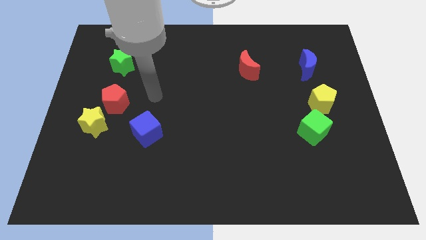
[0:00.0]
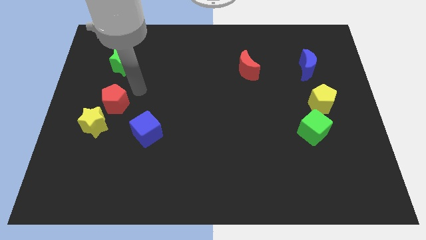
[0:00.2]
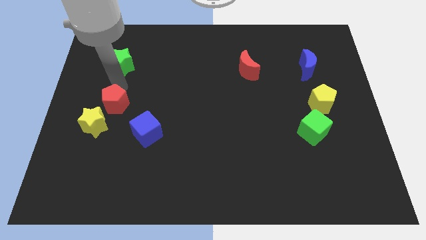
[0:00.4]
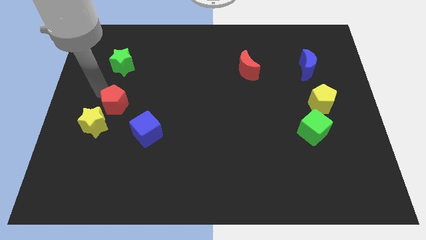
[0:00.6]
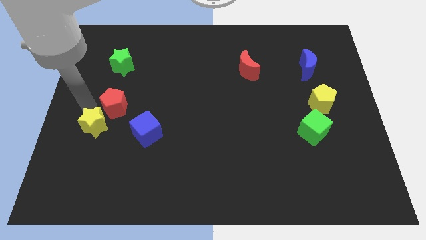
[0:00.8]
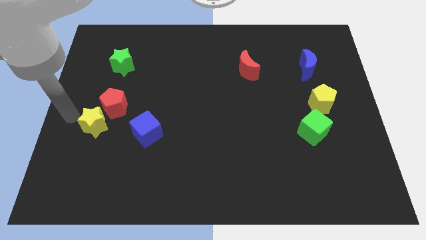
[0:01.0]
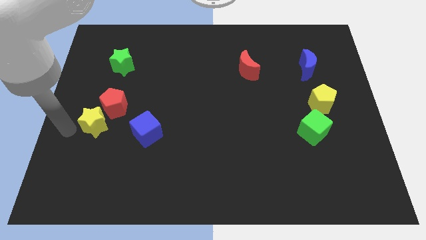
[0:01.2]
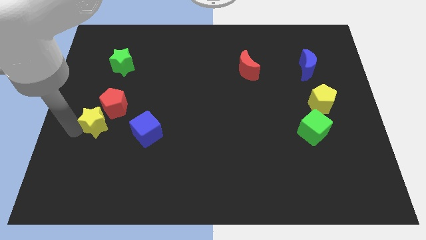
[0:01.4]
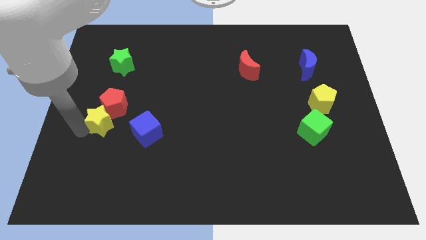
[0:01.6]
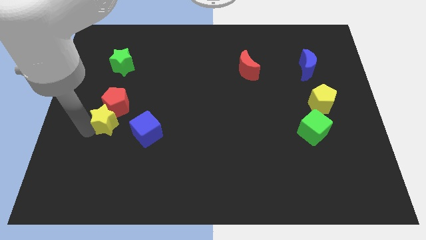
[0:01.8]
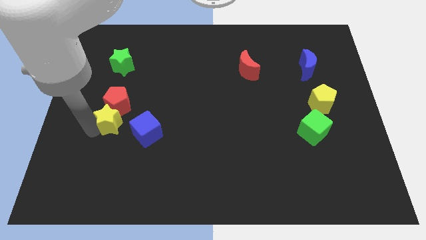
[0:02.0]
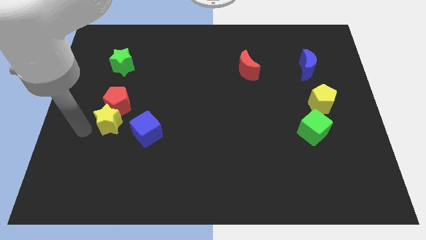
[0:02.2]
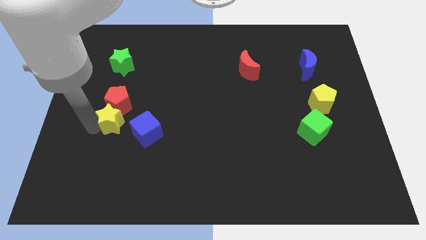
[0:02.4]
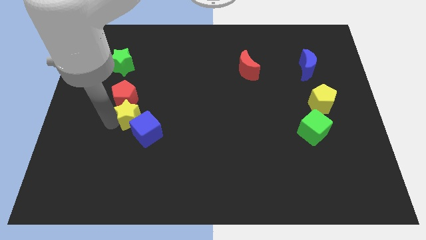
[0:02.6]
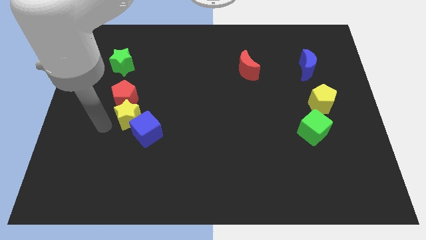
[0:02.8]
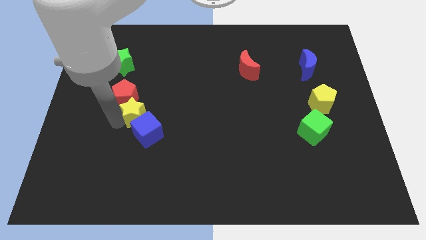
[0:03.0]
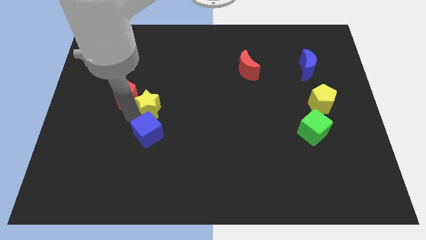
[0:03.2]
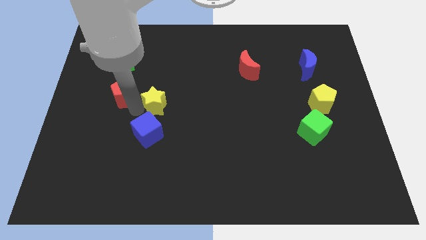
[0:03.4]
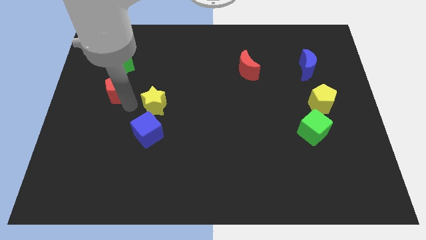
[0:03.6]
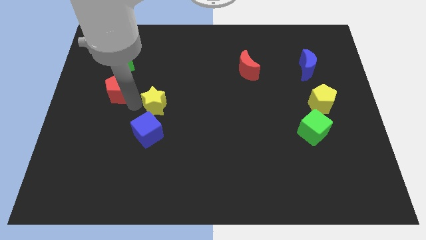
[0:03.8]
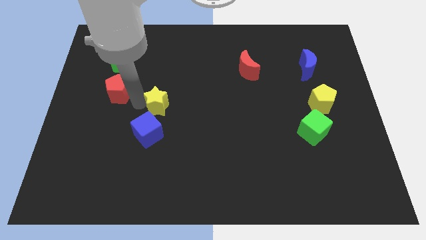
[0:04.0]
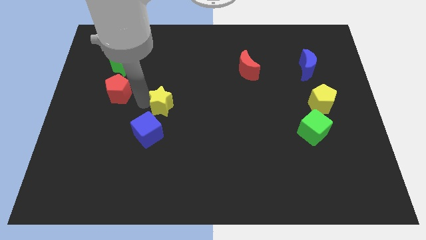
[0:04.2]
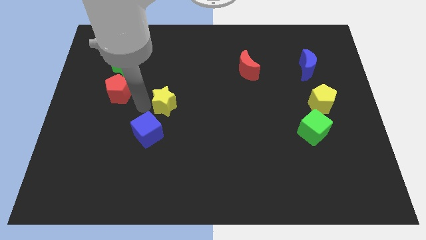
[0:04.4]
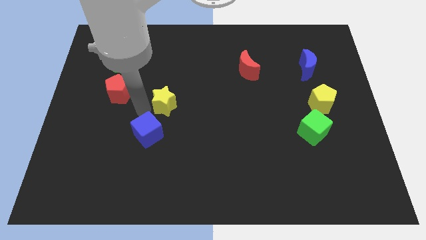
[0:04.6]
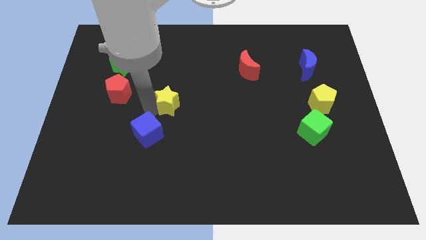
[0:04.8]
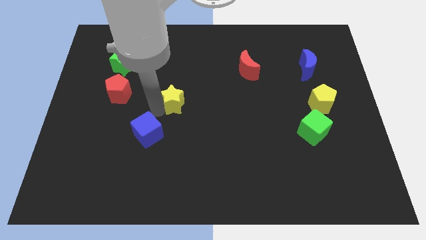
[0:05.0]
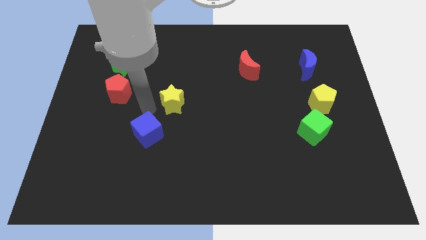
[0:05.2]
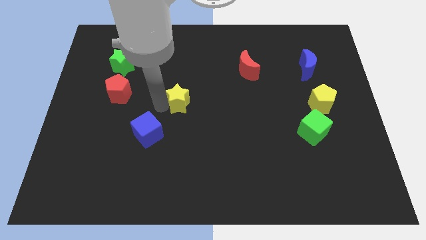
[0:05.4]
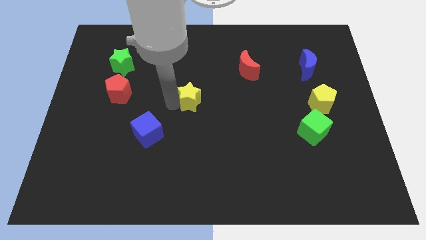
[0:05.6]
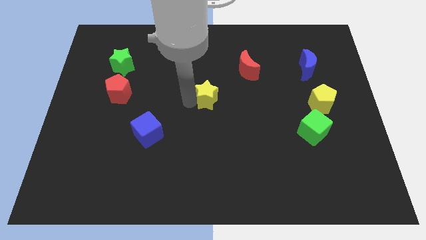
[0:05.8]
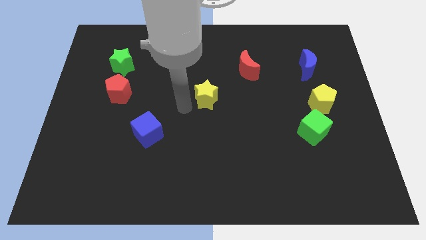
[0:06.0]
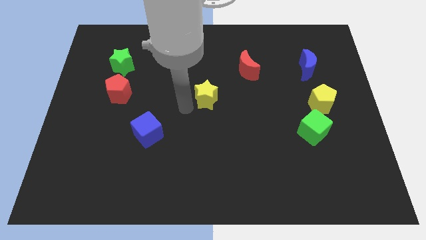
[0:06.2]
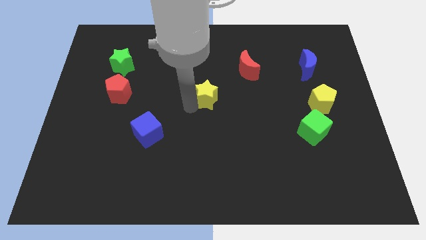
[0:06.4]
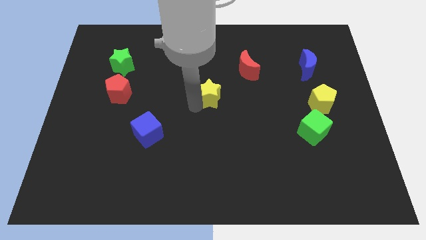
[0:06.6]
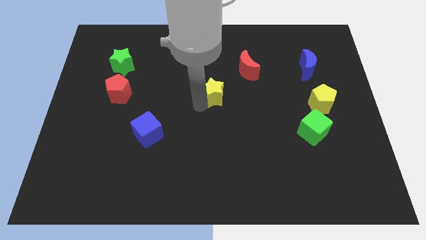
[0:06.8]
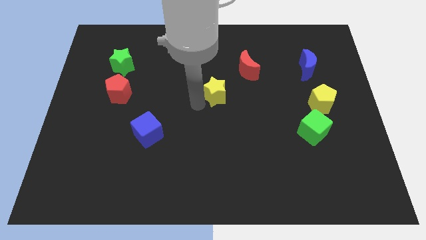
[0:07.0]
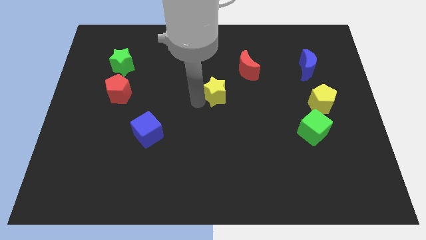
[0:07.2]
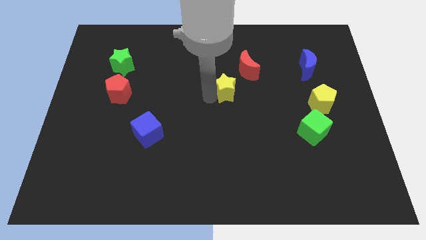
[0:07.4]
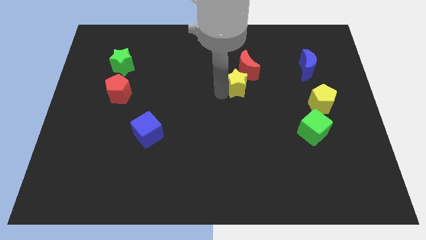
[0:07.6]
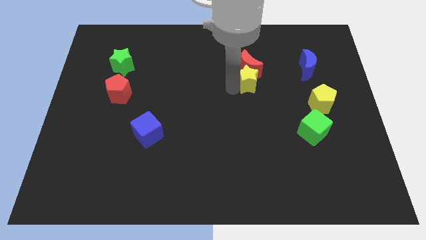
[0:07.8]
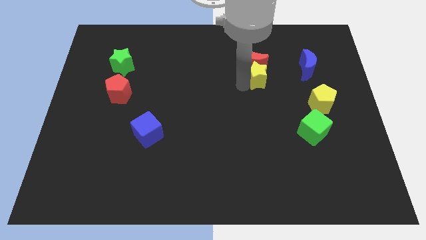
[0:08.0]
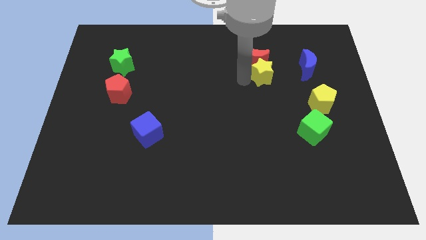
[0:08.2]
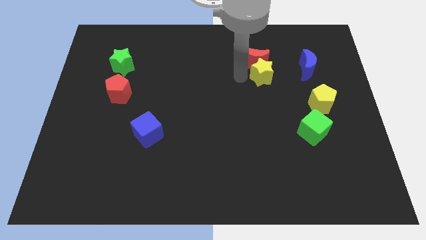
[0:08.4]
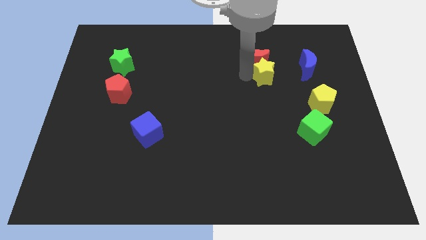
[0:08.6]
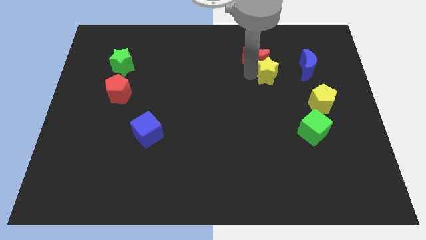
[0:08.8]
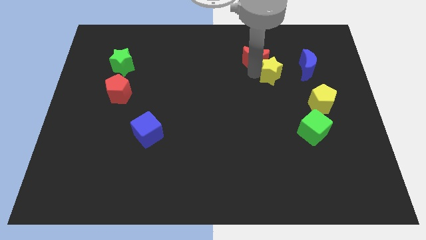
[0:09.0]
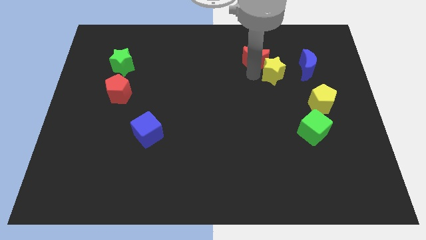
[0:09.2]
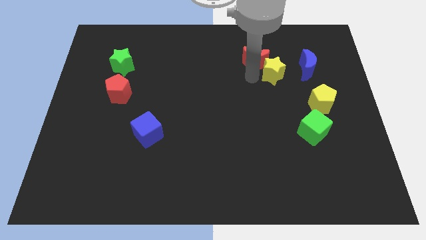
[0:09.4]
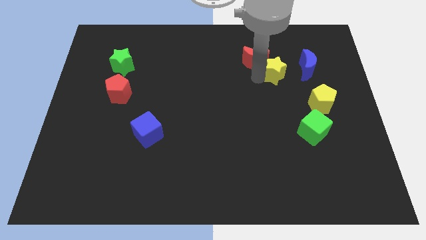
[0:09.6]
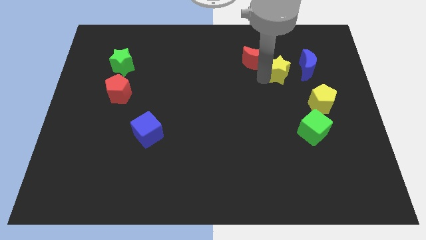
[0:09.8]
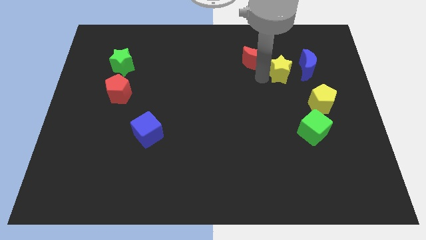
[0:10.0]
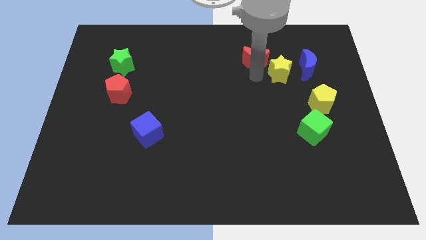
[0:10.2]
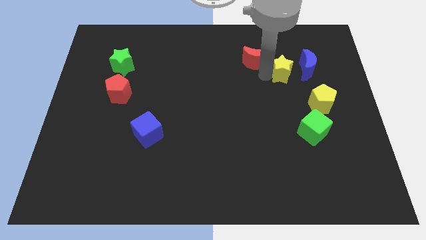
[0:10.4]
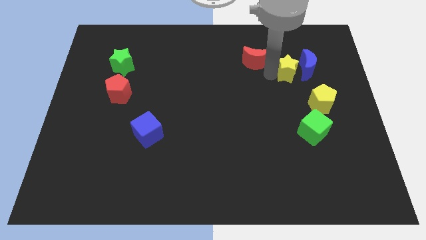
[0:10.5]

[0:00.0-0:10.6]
slide the yellow star to the blue moon

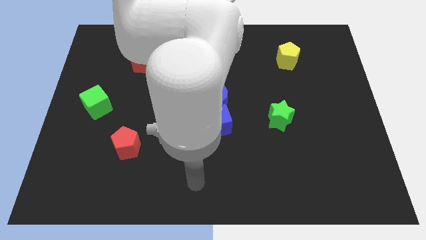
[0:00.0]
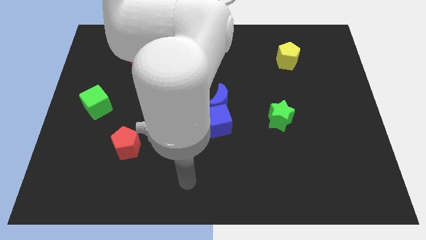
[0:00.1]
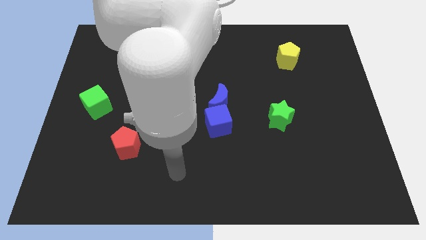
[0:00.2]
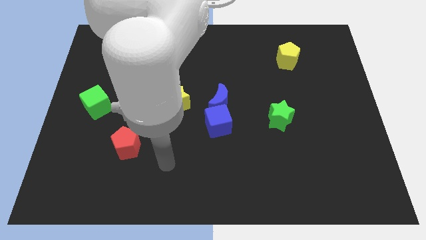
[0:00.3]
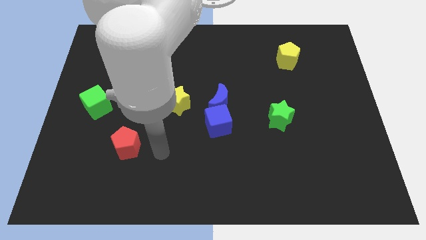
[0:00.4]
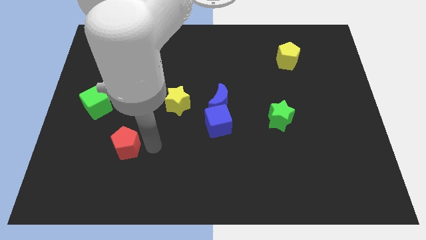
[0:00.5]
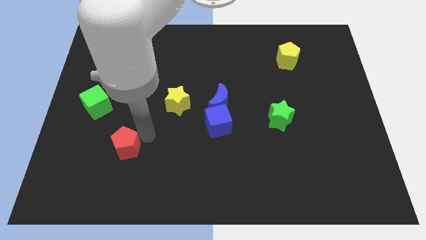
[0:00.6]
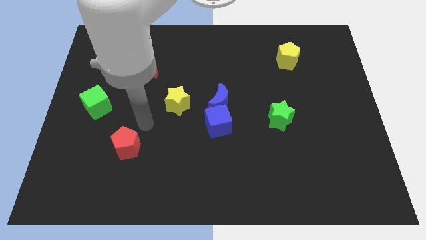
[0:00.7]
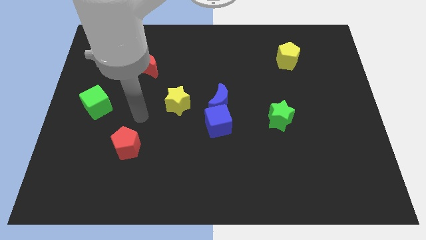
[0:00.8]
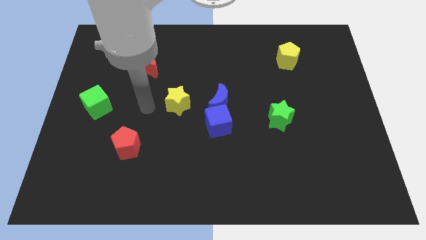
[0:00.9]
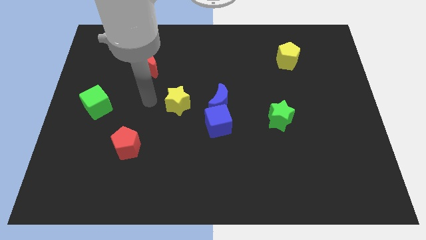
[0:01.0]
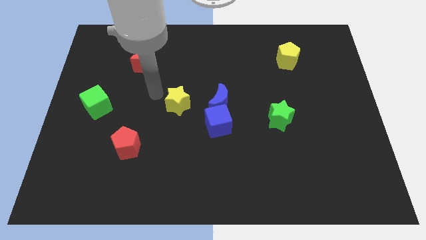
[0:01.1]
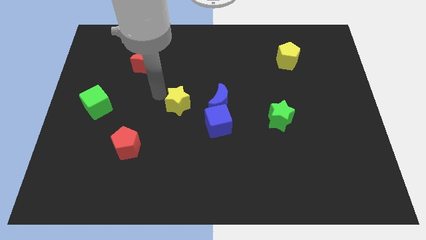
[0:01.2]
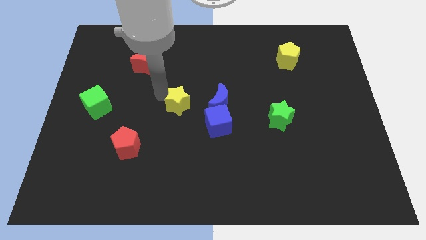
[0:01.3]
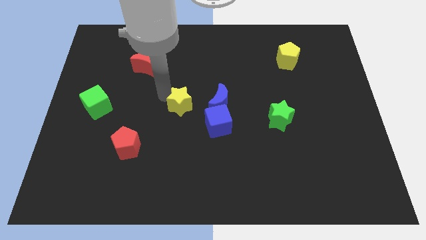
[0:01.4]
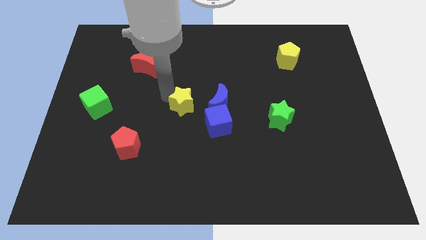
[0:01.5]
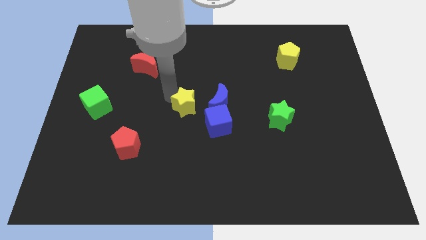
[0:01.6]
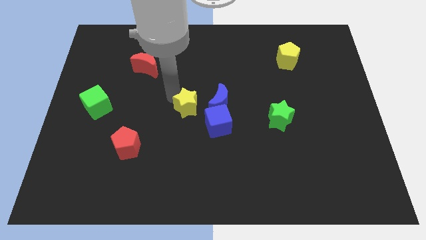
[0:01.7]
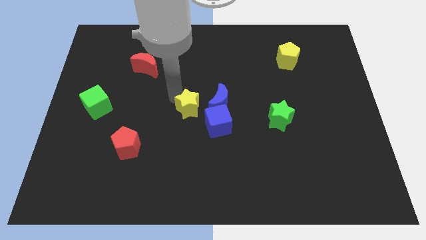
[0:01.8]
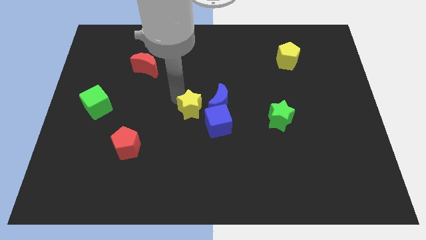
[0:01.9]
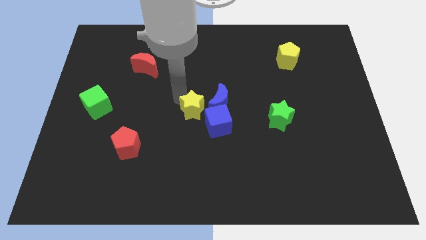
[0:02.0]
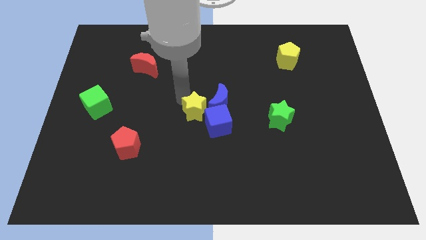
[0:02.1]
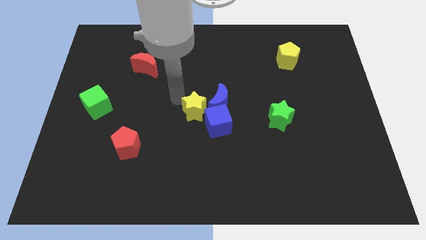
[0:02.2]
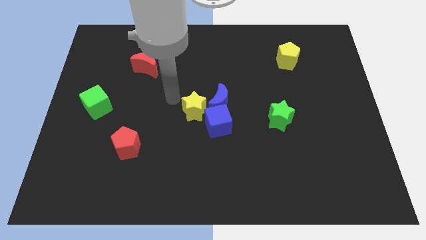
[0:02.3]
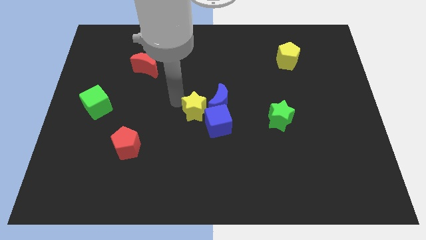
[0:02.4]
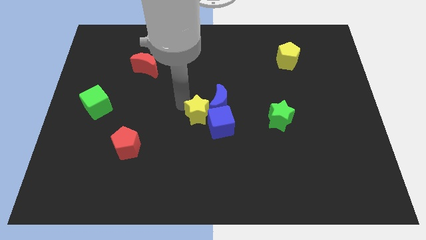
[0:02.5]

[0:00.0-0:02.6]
move the yellow star next to the blue cube
